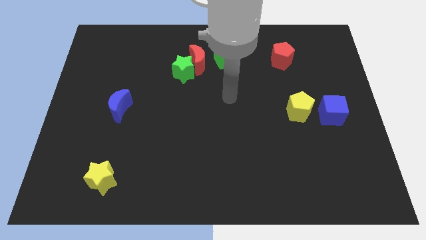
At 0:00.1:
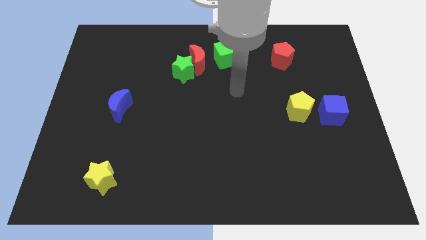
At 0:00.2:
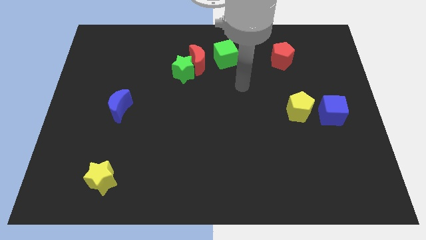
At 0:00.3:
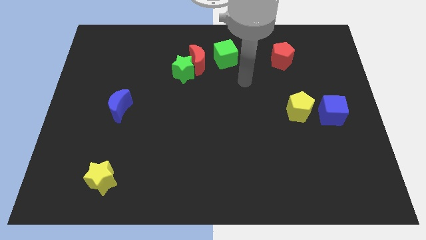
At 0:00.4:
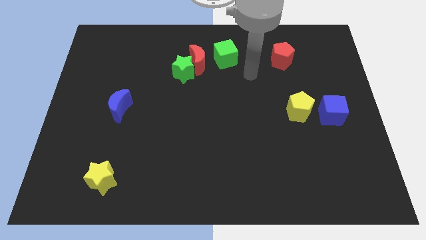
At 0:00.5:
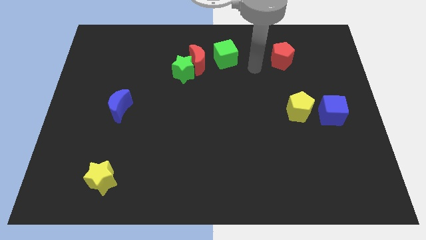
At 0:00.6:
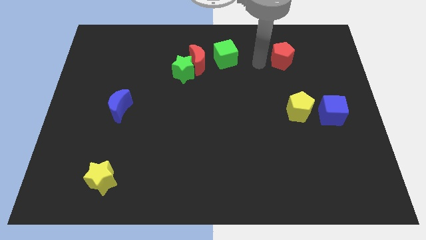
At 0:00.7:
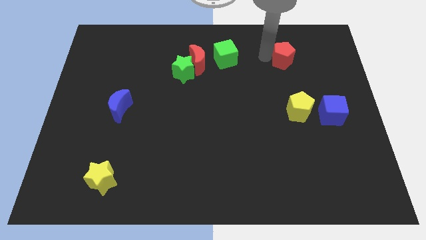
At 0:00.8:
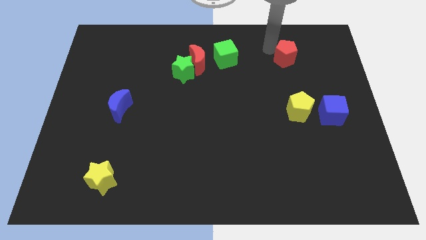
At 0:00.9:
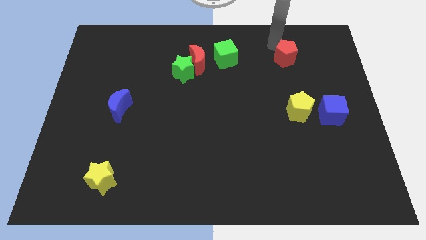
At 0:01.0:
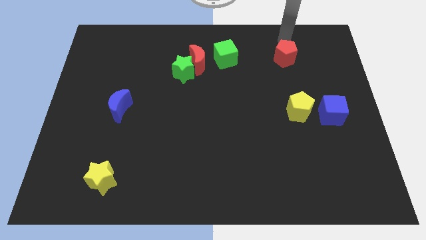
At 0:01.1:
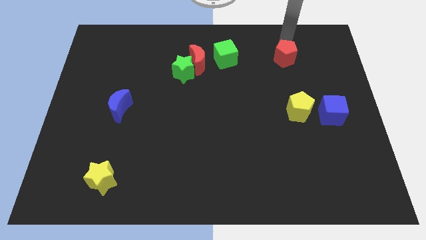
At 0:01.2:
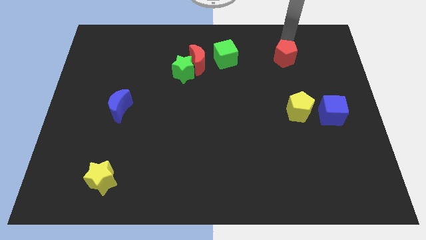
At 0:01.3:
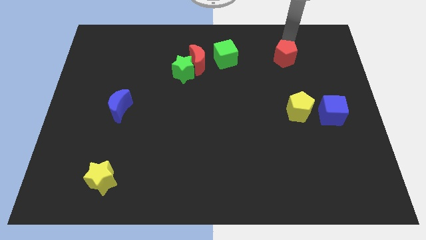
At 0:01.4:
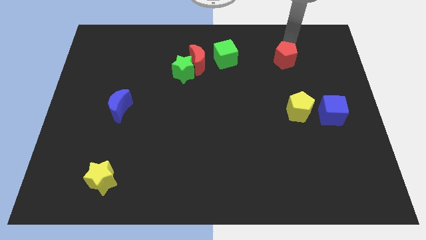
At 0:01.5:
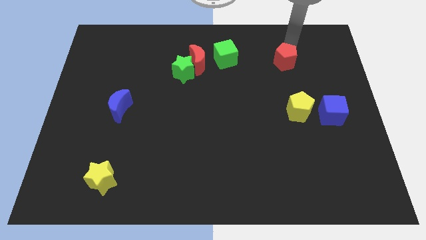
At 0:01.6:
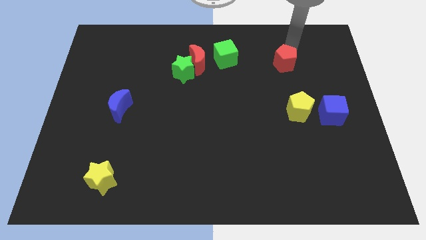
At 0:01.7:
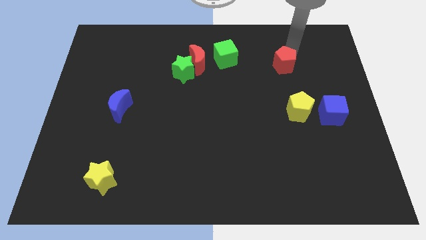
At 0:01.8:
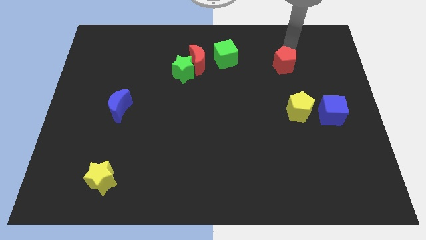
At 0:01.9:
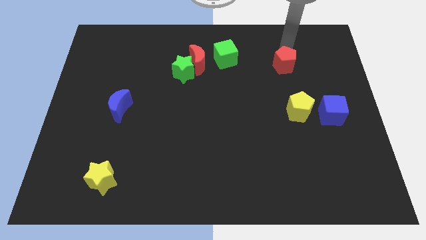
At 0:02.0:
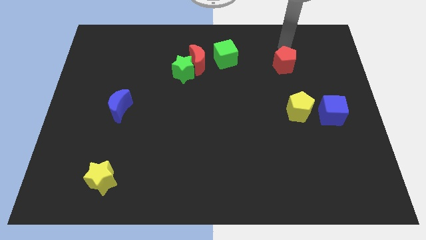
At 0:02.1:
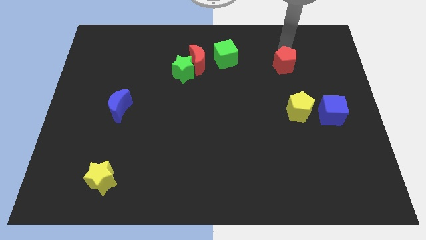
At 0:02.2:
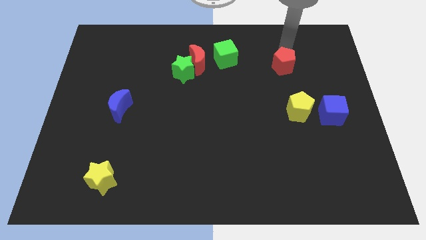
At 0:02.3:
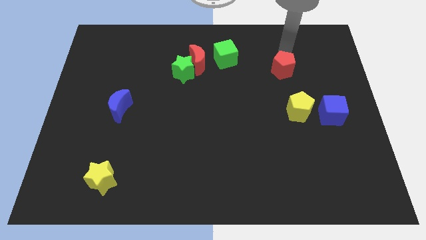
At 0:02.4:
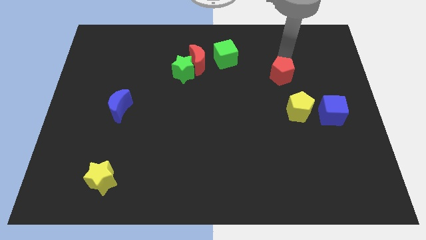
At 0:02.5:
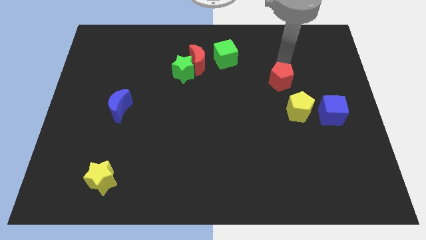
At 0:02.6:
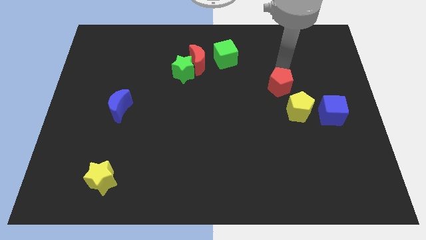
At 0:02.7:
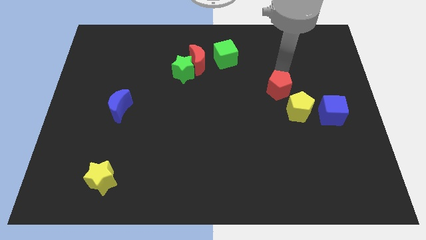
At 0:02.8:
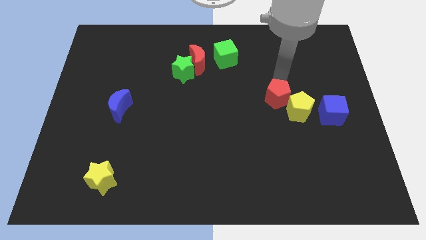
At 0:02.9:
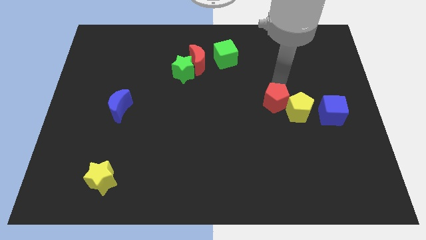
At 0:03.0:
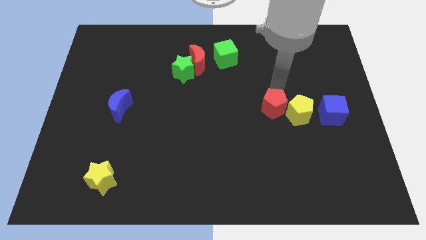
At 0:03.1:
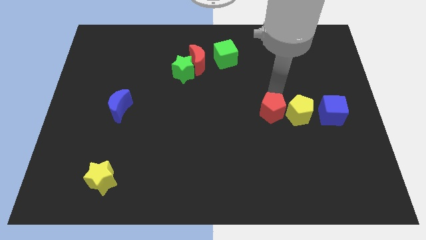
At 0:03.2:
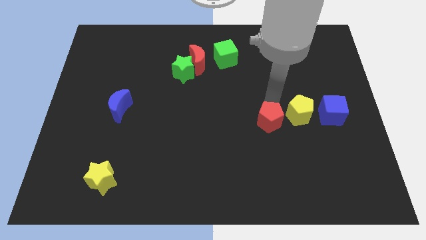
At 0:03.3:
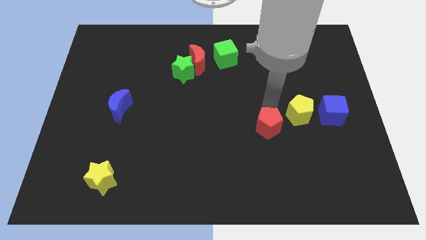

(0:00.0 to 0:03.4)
move the red pentagon down

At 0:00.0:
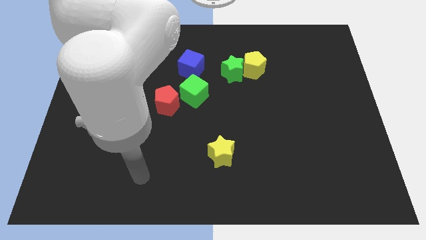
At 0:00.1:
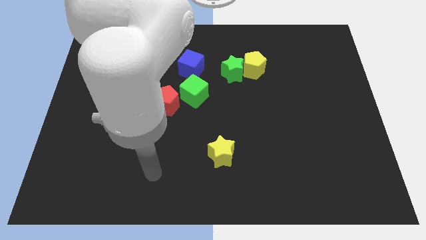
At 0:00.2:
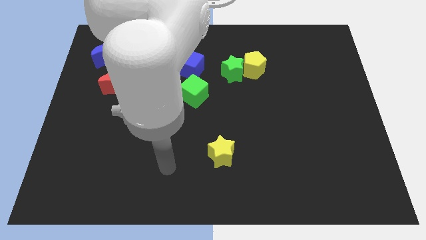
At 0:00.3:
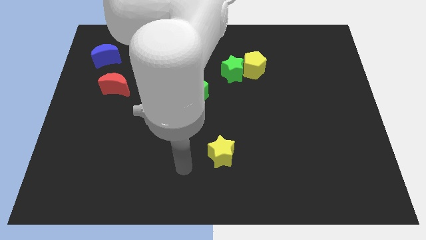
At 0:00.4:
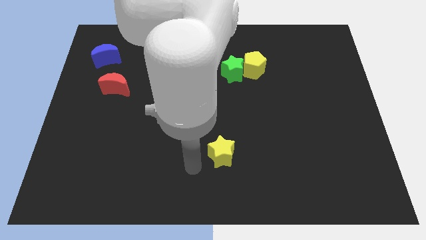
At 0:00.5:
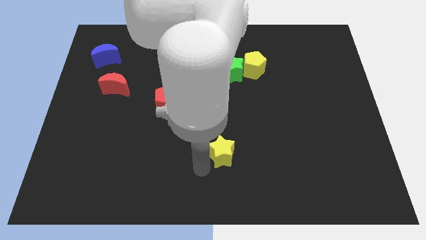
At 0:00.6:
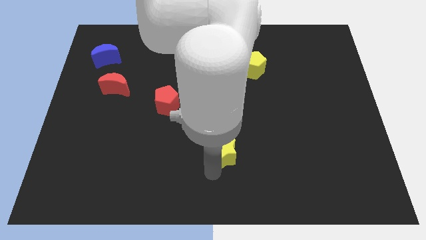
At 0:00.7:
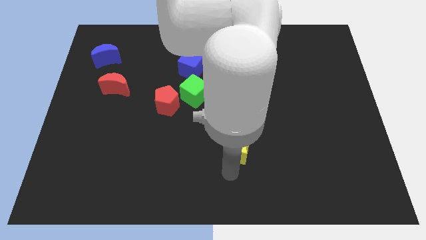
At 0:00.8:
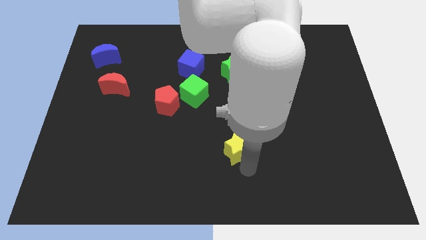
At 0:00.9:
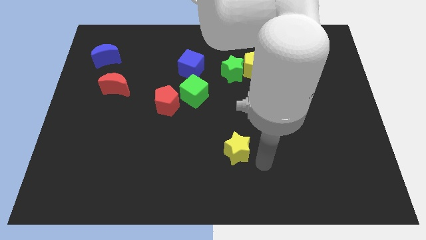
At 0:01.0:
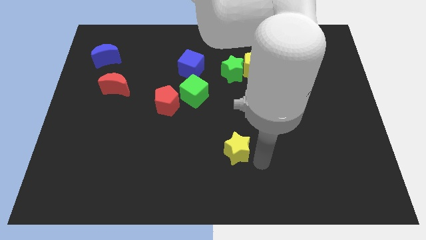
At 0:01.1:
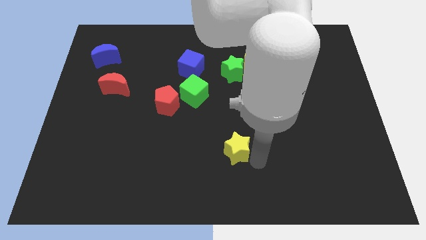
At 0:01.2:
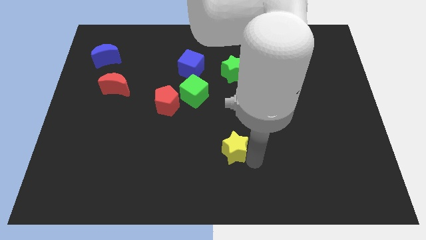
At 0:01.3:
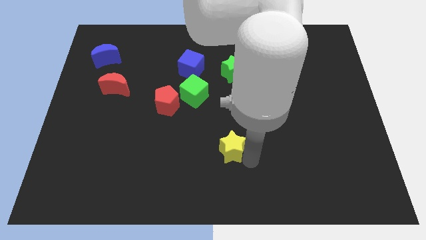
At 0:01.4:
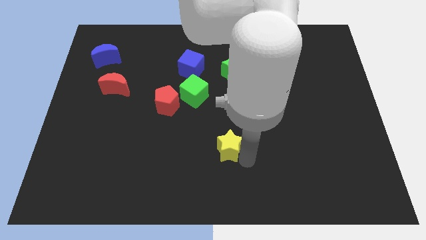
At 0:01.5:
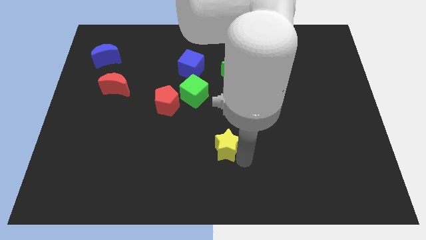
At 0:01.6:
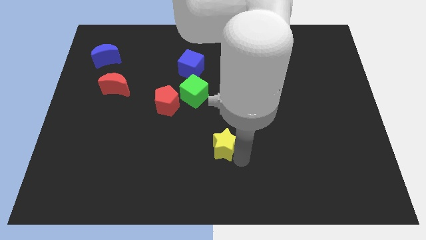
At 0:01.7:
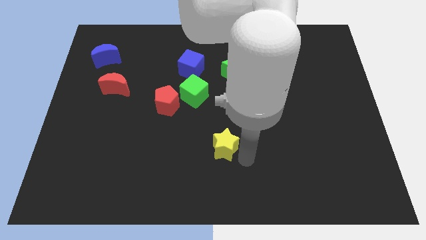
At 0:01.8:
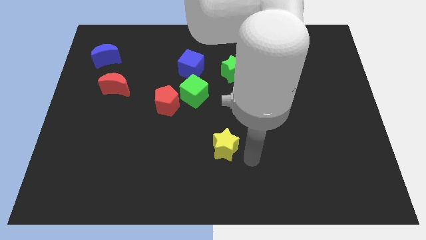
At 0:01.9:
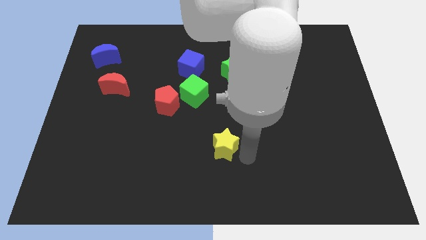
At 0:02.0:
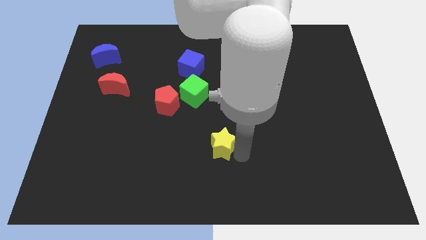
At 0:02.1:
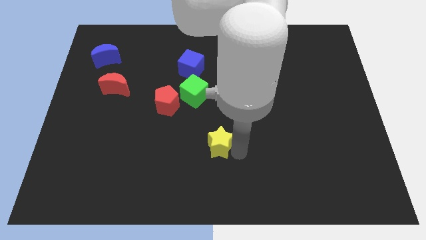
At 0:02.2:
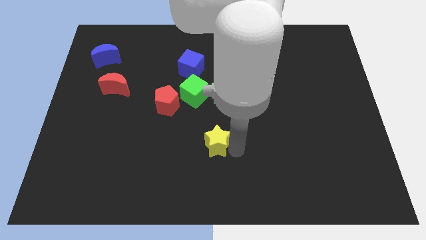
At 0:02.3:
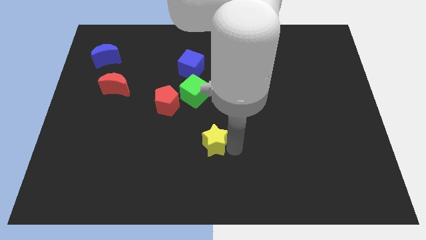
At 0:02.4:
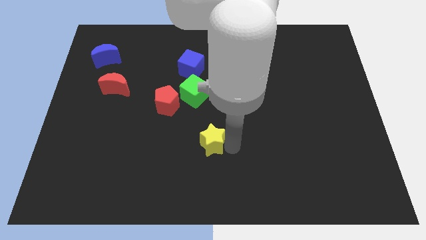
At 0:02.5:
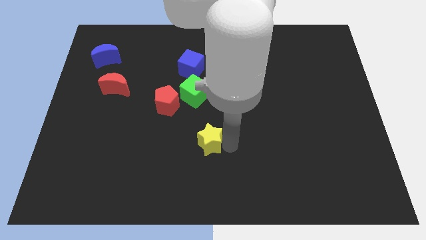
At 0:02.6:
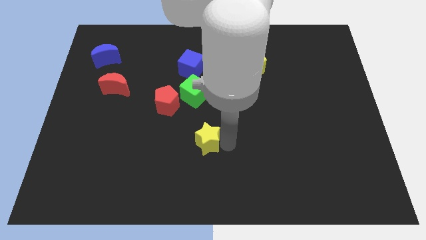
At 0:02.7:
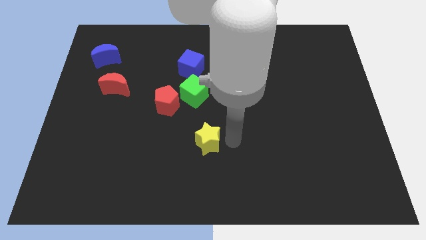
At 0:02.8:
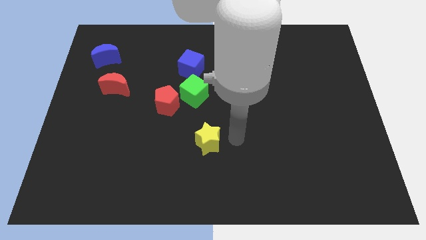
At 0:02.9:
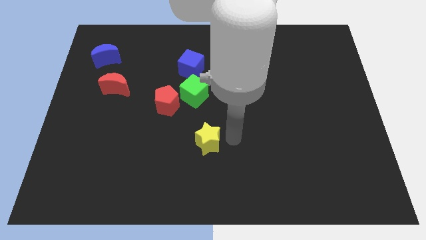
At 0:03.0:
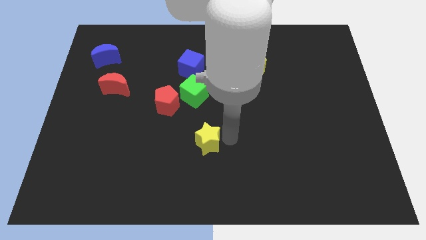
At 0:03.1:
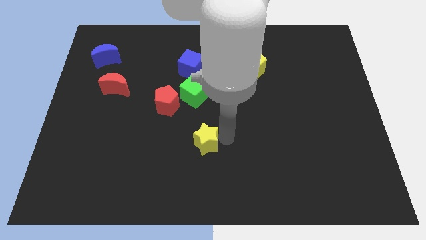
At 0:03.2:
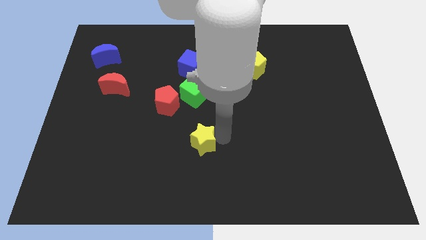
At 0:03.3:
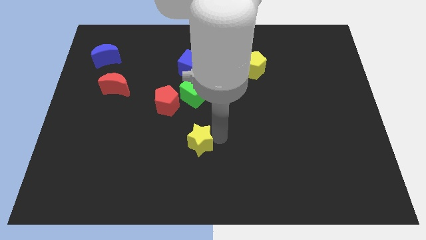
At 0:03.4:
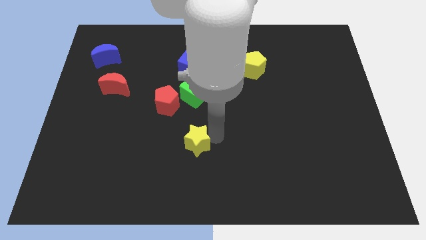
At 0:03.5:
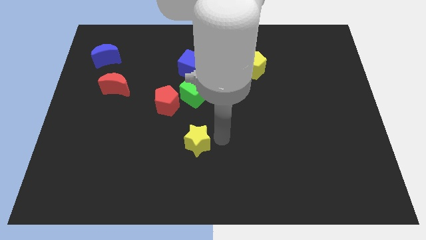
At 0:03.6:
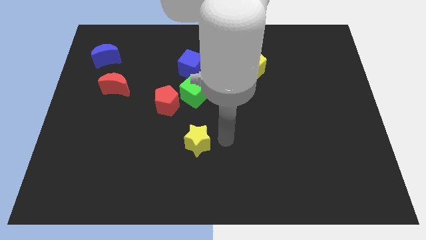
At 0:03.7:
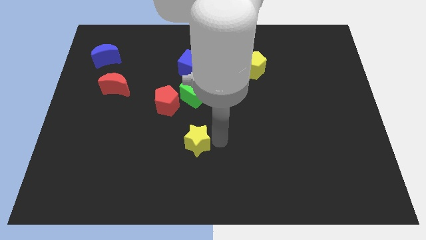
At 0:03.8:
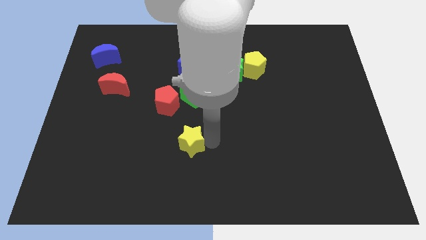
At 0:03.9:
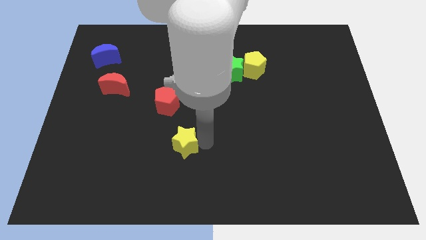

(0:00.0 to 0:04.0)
slightly push the yellow star left

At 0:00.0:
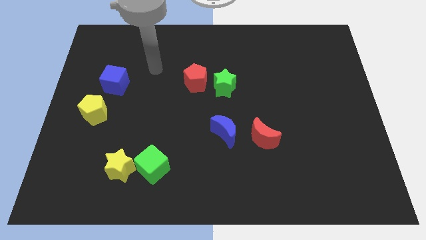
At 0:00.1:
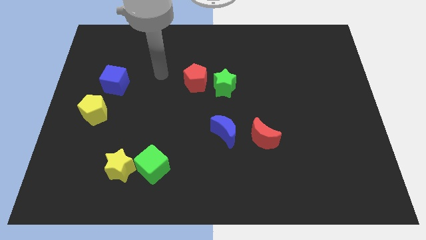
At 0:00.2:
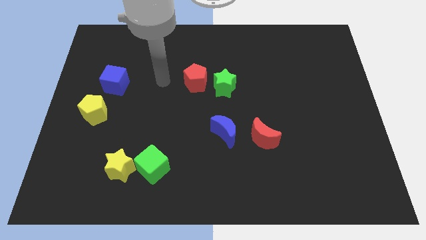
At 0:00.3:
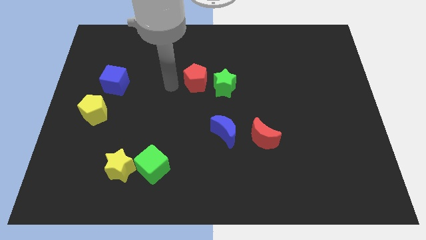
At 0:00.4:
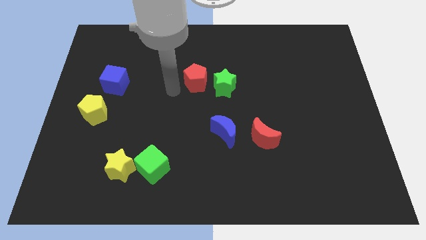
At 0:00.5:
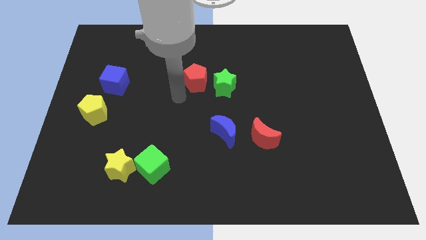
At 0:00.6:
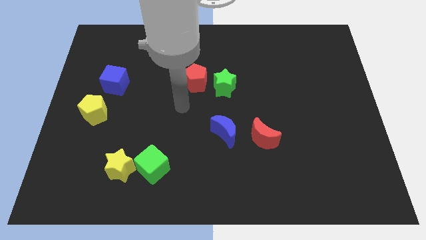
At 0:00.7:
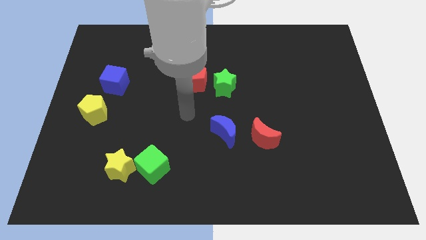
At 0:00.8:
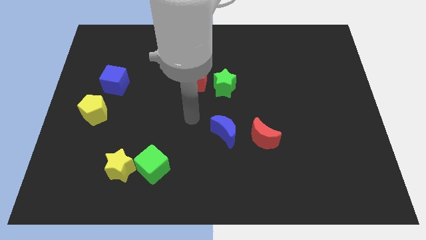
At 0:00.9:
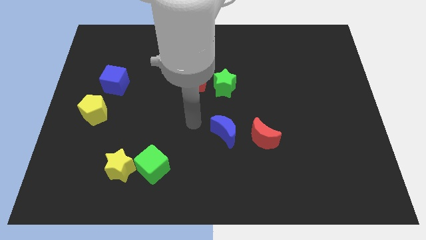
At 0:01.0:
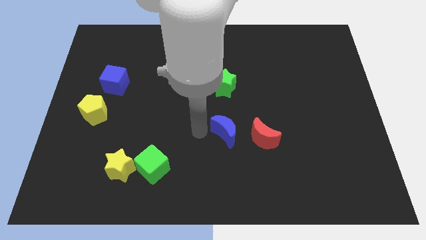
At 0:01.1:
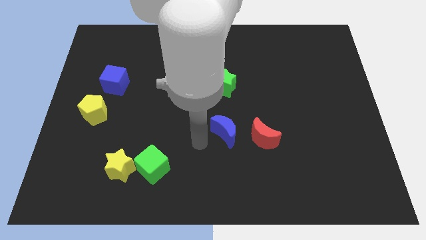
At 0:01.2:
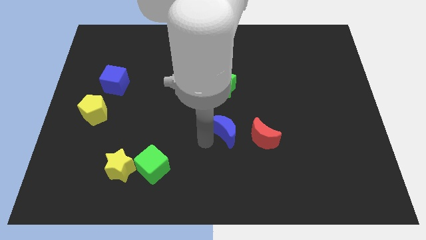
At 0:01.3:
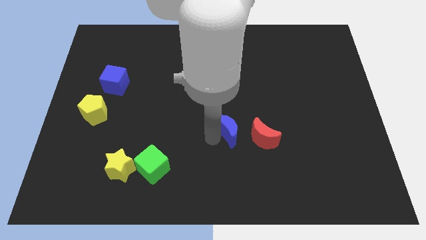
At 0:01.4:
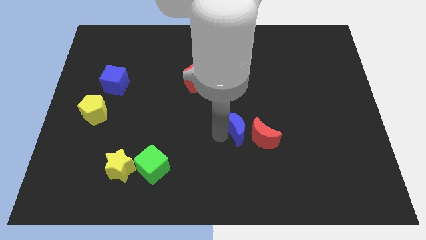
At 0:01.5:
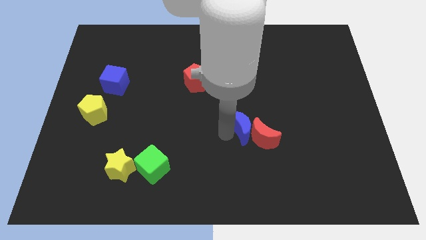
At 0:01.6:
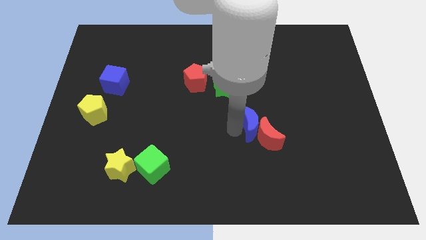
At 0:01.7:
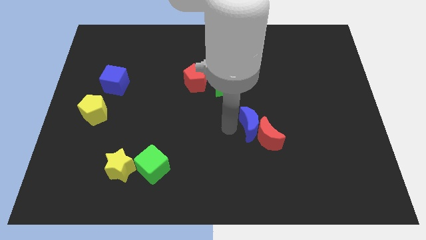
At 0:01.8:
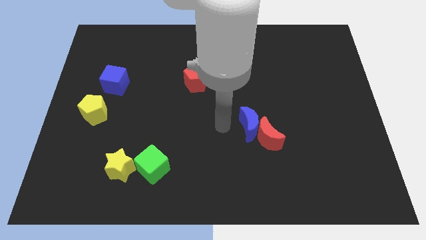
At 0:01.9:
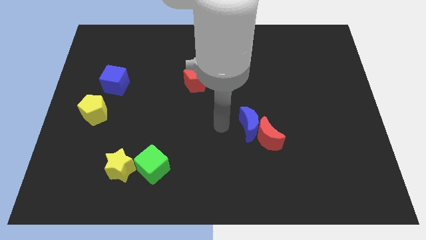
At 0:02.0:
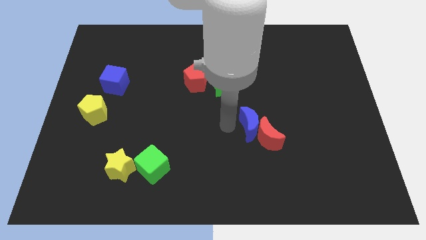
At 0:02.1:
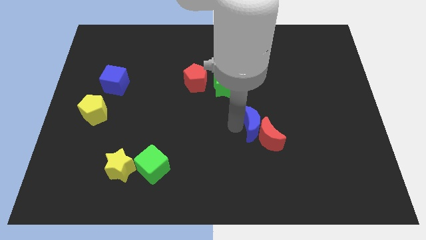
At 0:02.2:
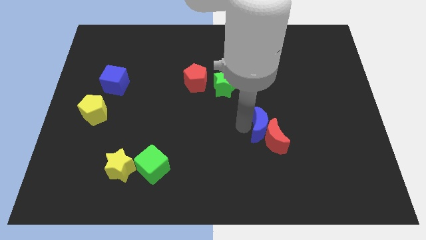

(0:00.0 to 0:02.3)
move the blue moon a bit right
